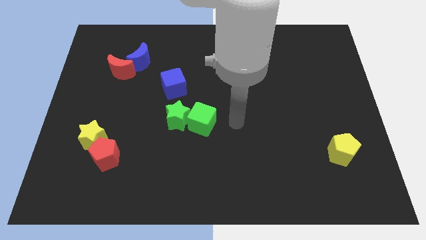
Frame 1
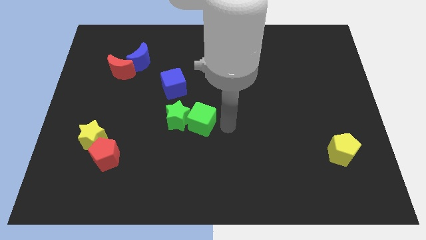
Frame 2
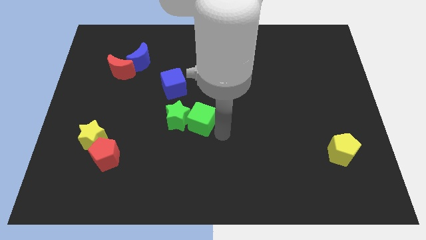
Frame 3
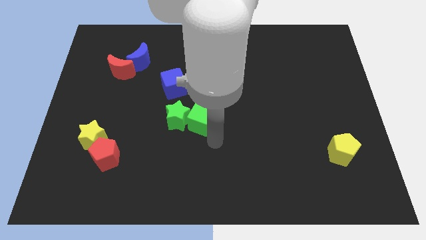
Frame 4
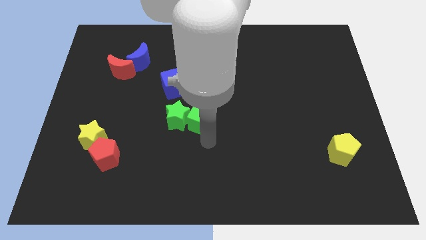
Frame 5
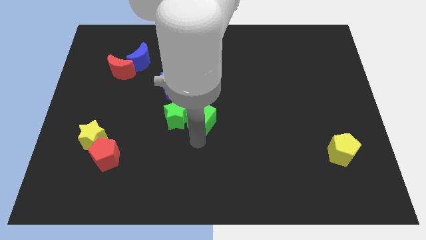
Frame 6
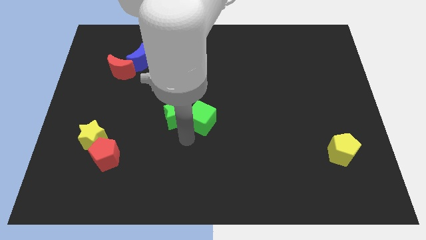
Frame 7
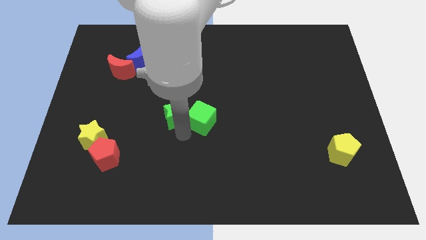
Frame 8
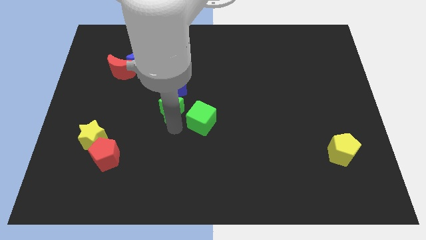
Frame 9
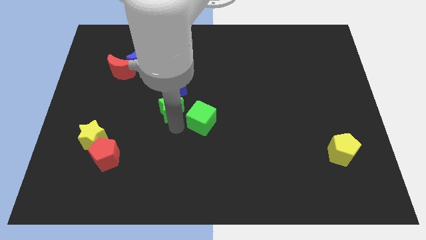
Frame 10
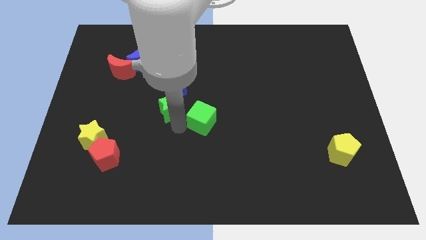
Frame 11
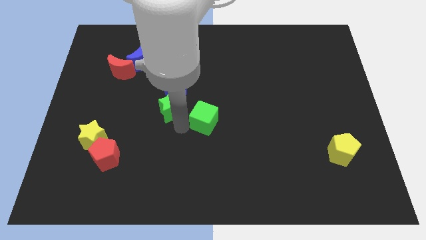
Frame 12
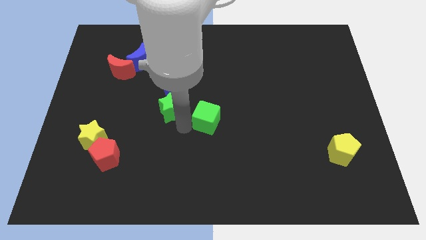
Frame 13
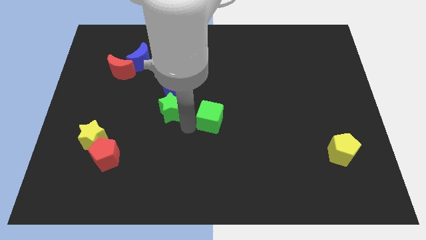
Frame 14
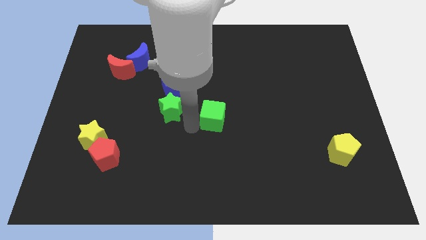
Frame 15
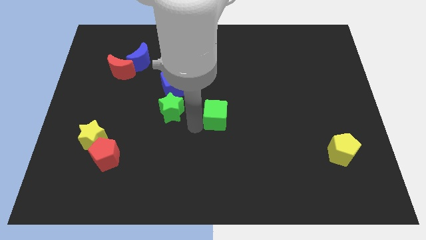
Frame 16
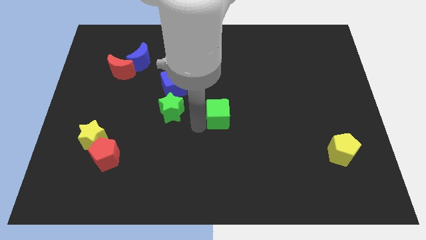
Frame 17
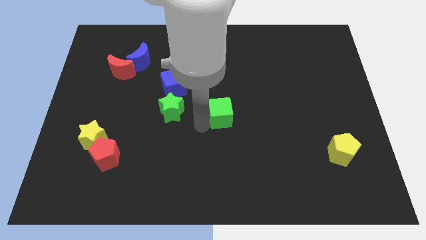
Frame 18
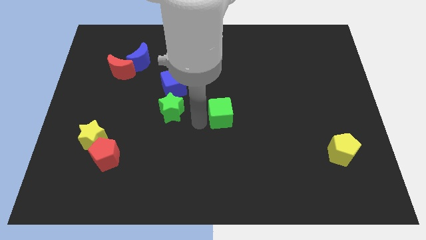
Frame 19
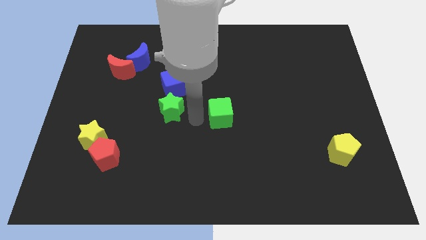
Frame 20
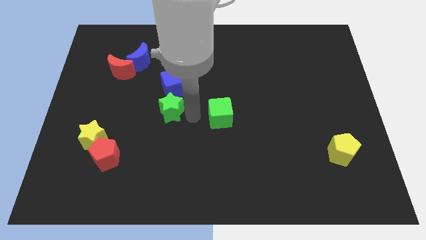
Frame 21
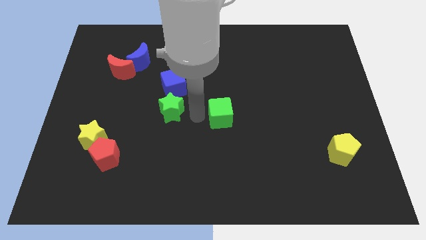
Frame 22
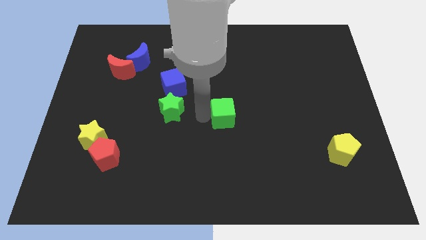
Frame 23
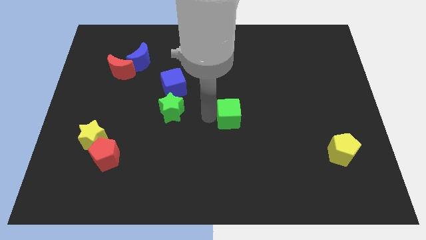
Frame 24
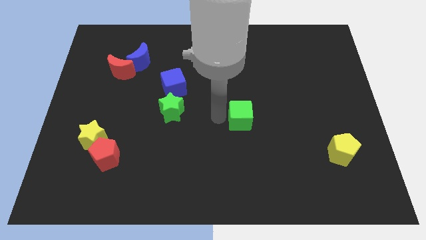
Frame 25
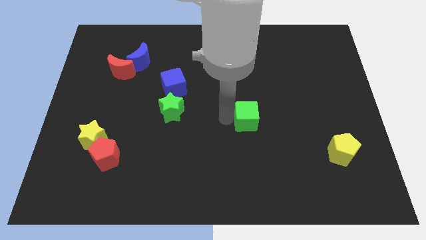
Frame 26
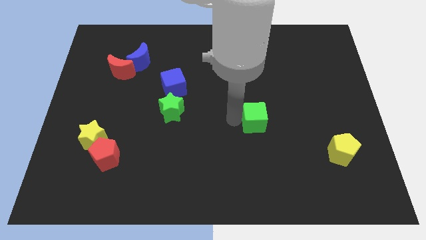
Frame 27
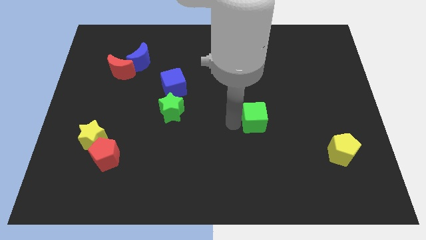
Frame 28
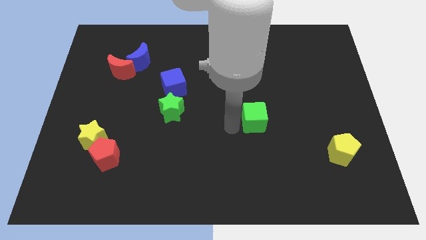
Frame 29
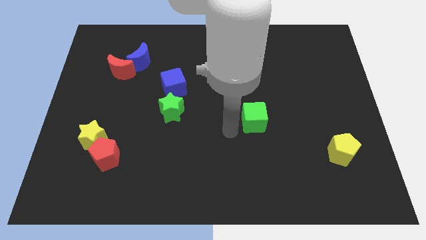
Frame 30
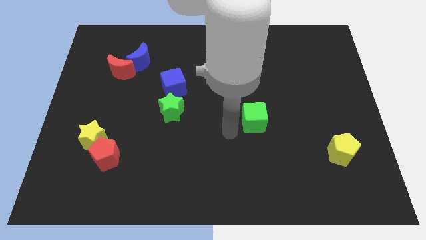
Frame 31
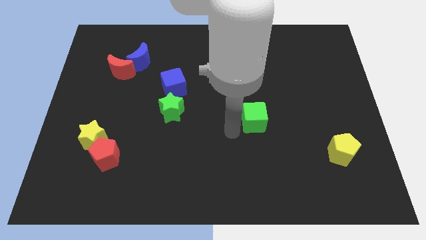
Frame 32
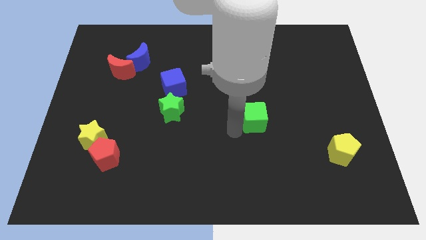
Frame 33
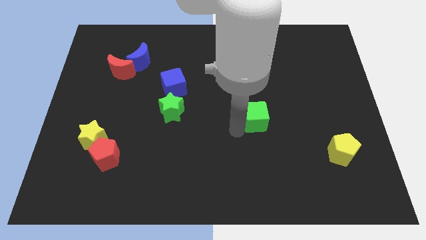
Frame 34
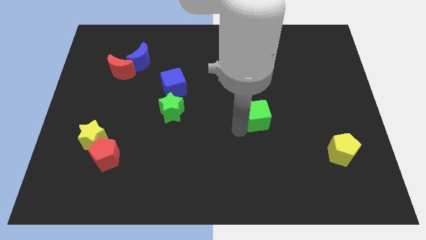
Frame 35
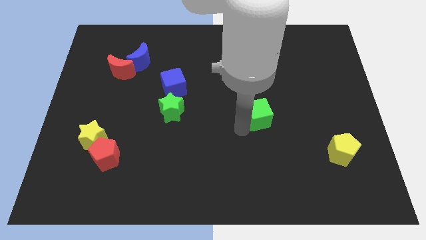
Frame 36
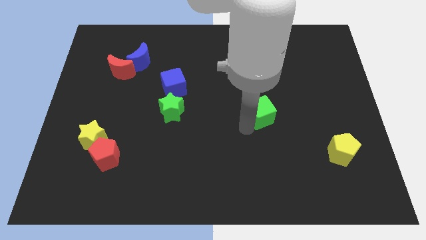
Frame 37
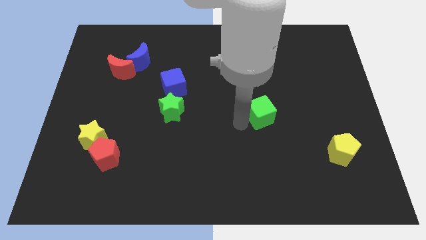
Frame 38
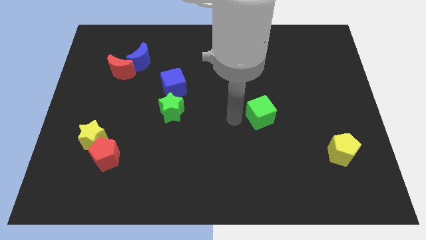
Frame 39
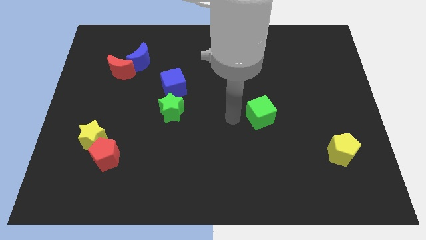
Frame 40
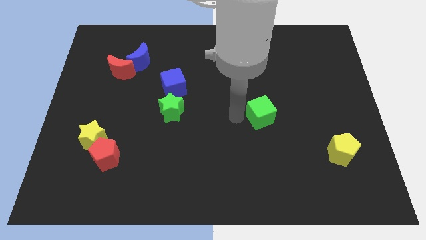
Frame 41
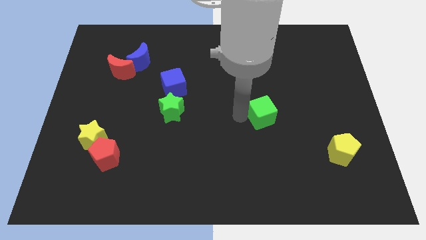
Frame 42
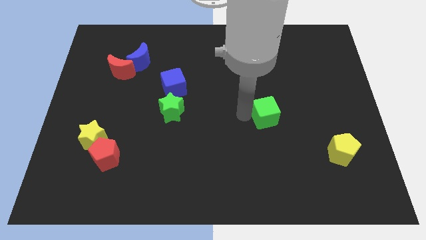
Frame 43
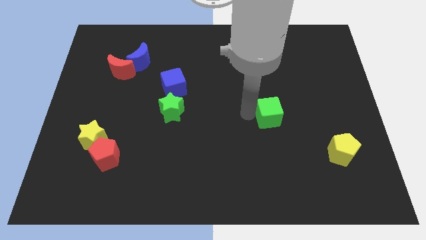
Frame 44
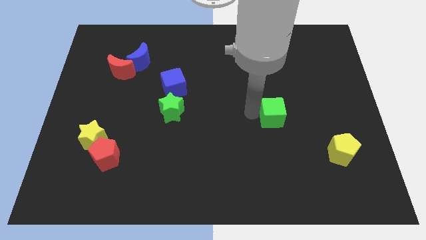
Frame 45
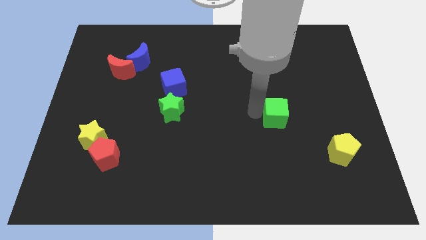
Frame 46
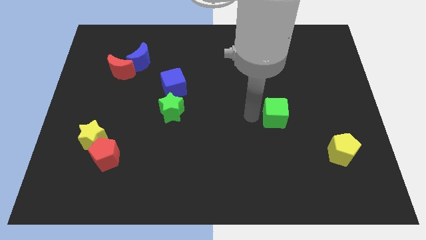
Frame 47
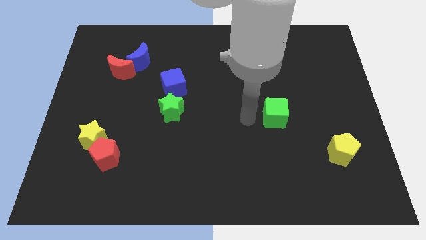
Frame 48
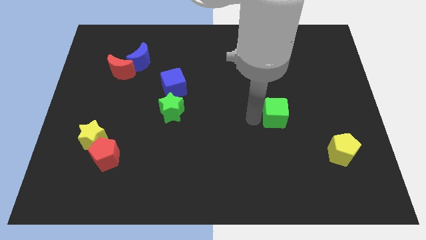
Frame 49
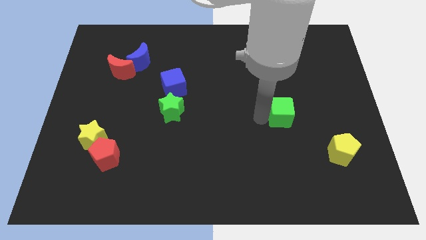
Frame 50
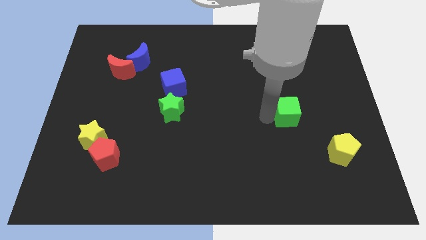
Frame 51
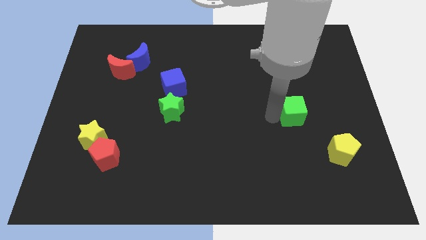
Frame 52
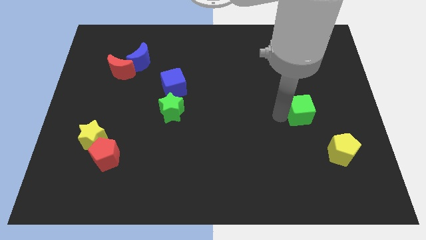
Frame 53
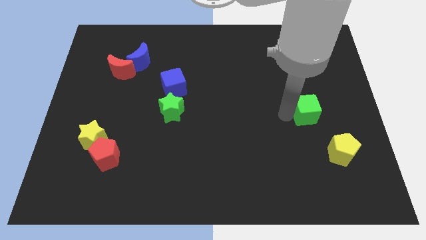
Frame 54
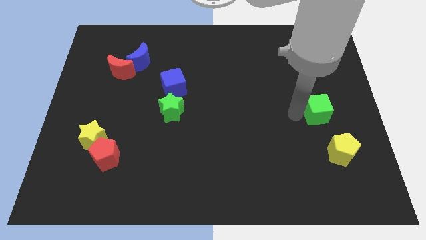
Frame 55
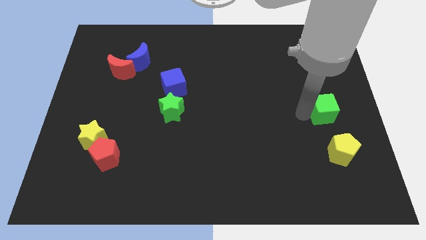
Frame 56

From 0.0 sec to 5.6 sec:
slide the green cube to the right side

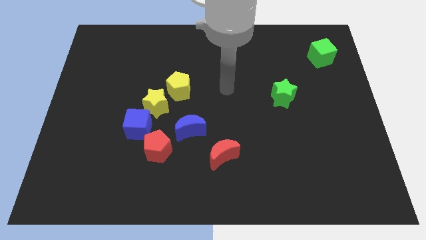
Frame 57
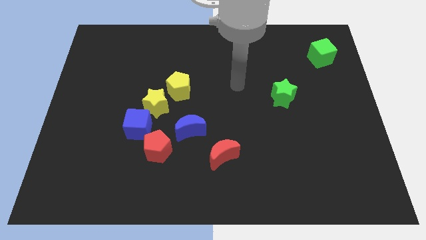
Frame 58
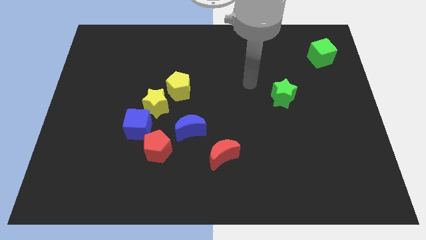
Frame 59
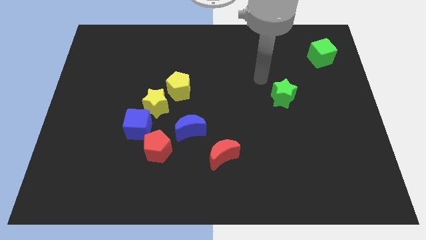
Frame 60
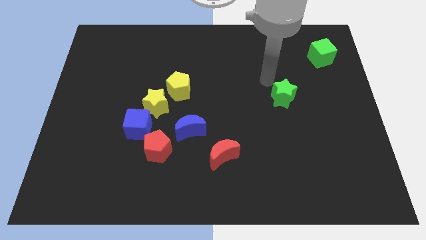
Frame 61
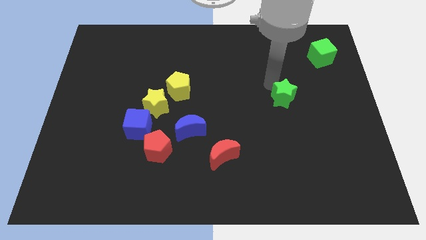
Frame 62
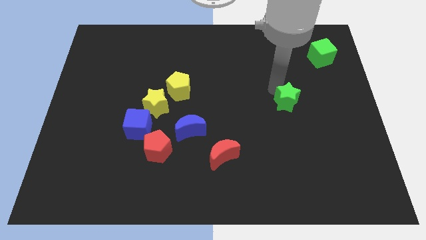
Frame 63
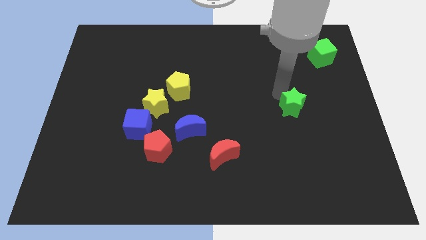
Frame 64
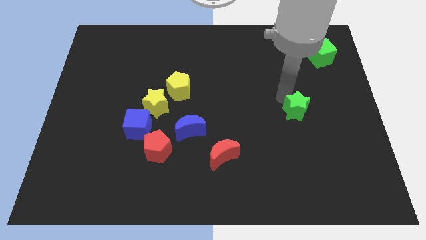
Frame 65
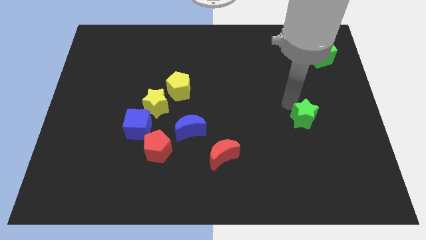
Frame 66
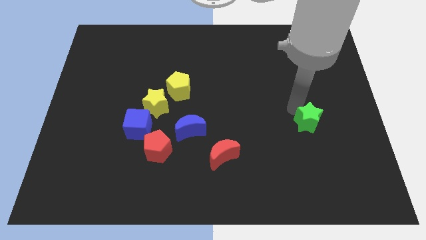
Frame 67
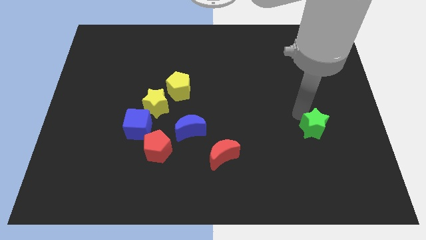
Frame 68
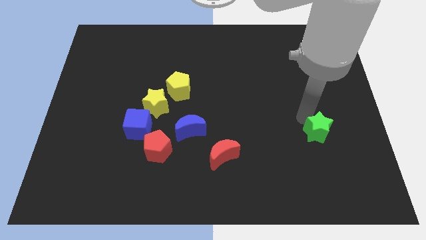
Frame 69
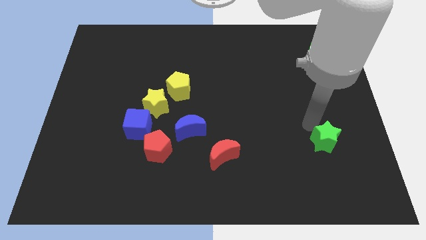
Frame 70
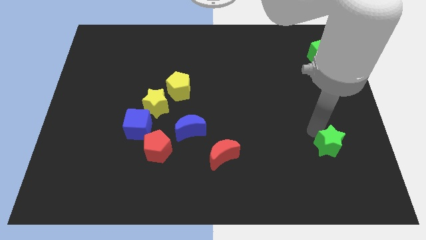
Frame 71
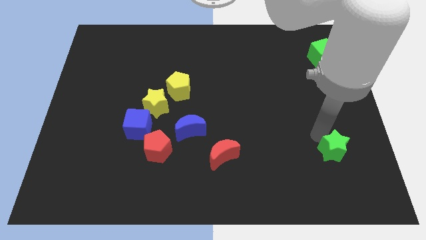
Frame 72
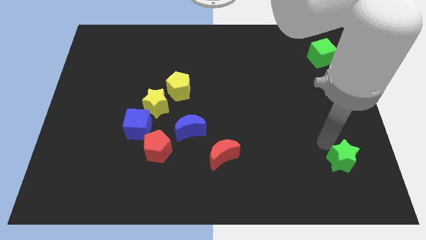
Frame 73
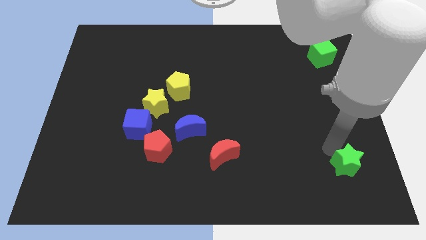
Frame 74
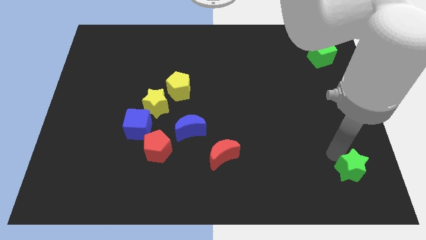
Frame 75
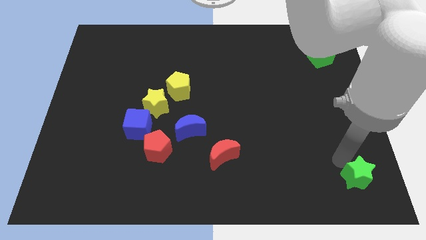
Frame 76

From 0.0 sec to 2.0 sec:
push the green star to the bottom right of the board
